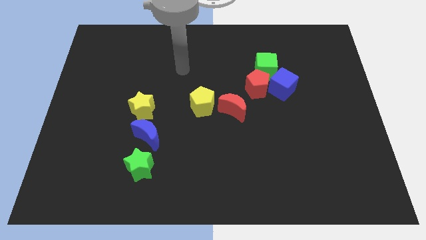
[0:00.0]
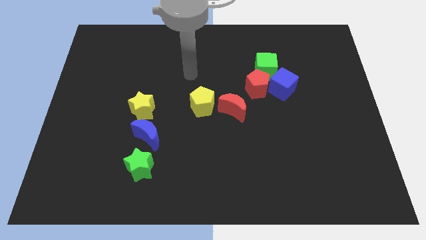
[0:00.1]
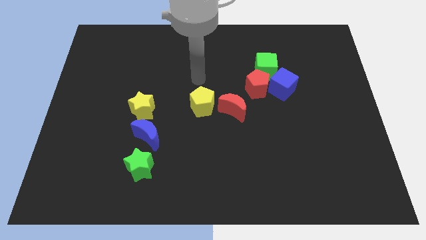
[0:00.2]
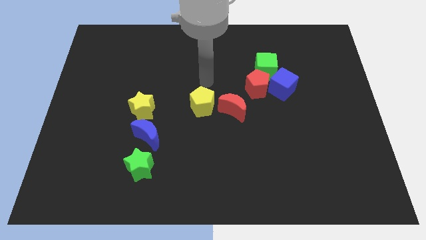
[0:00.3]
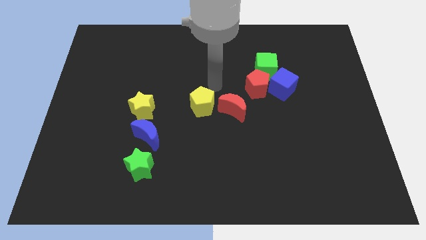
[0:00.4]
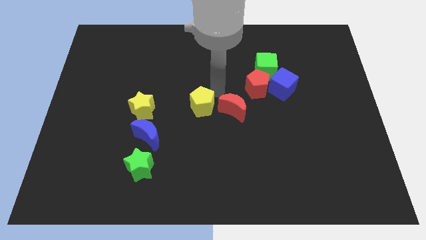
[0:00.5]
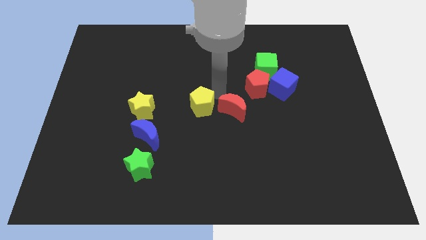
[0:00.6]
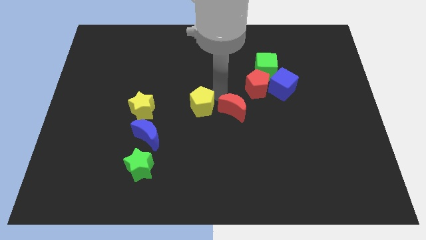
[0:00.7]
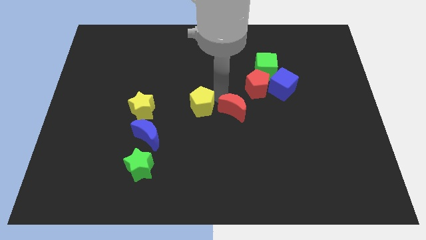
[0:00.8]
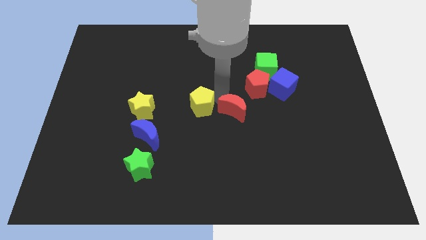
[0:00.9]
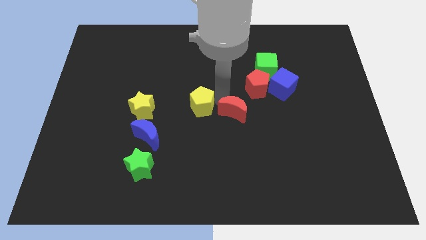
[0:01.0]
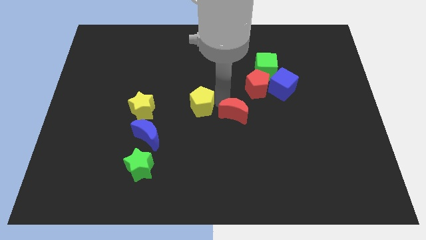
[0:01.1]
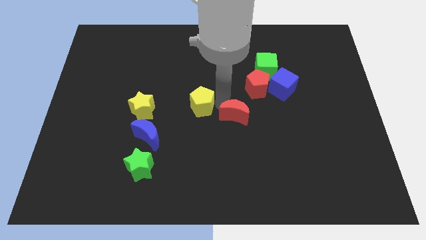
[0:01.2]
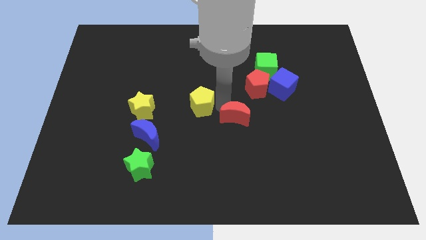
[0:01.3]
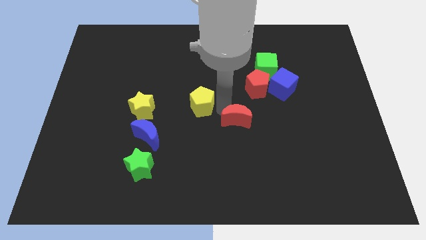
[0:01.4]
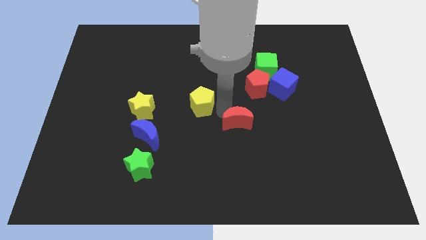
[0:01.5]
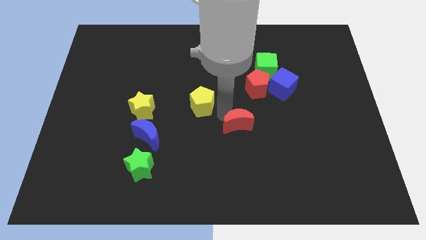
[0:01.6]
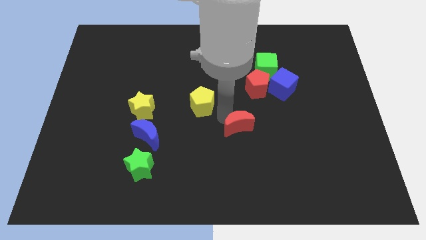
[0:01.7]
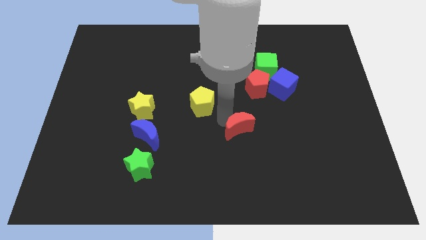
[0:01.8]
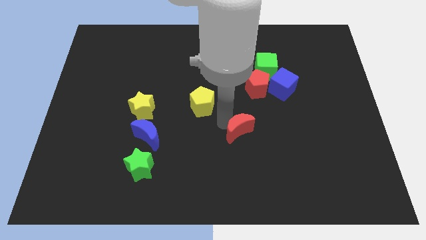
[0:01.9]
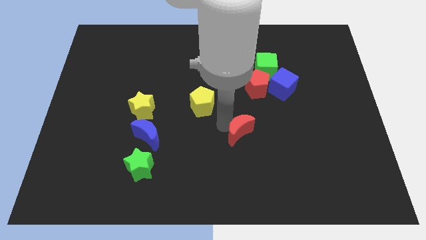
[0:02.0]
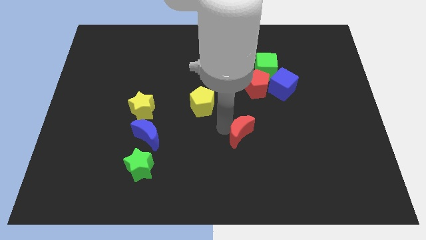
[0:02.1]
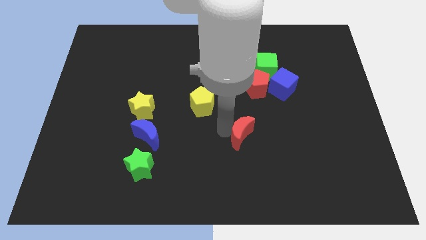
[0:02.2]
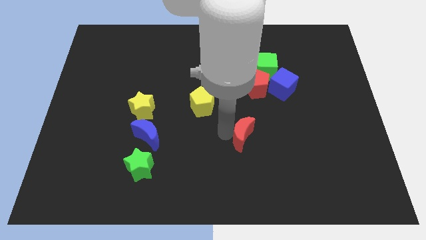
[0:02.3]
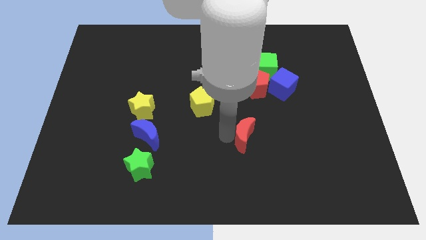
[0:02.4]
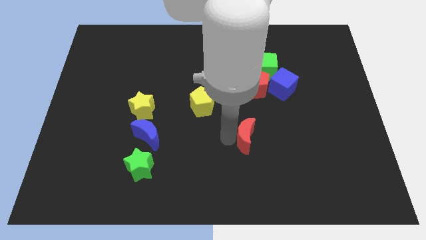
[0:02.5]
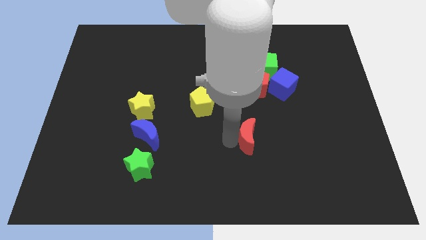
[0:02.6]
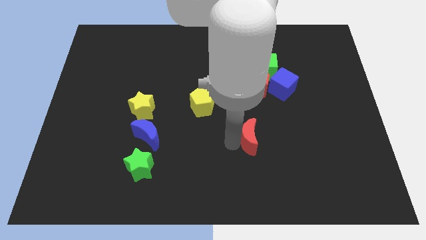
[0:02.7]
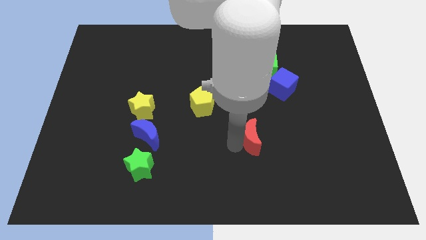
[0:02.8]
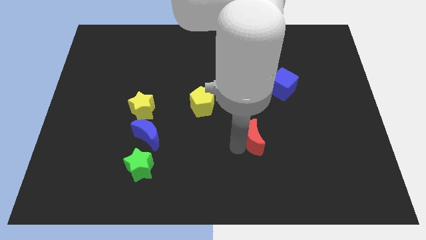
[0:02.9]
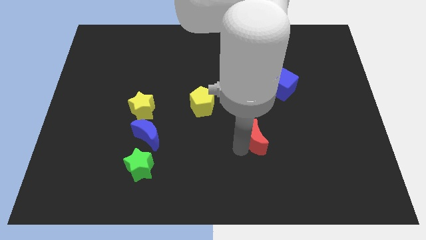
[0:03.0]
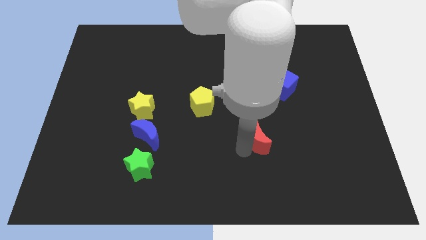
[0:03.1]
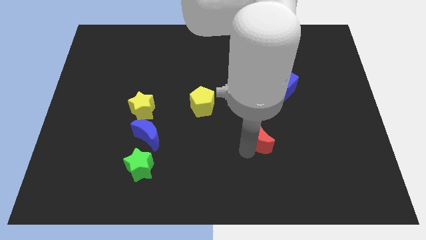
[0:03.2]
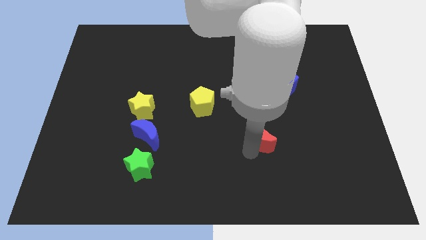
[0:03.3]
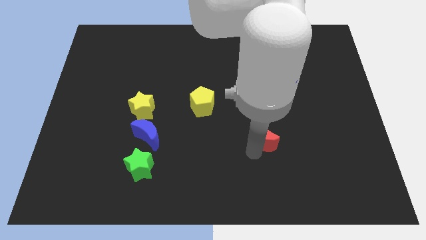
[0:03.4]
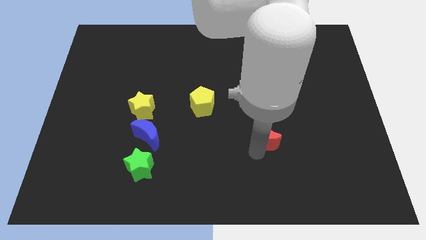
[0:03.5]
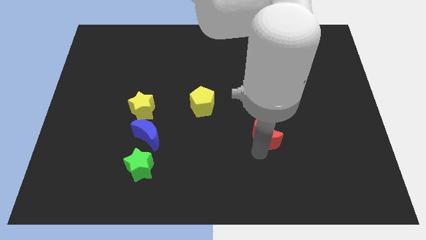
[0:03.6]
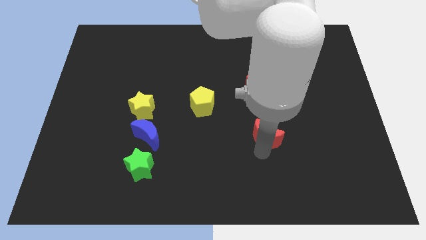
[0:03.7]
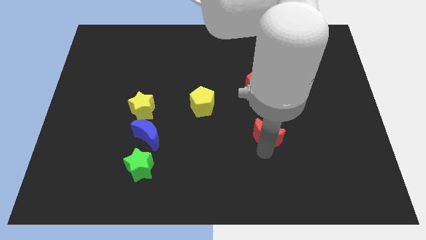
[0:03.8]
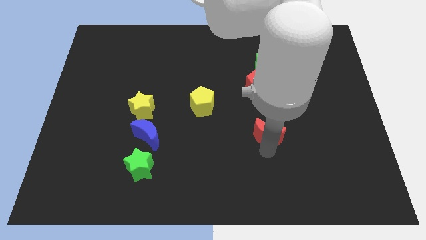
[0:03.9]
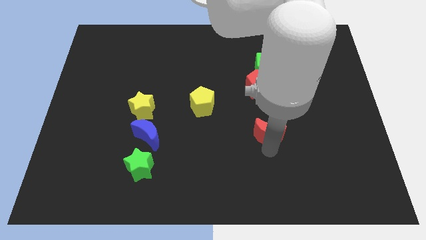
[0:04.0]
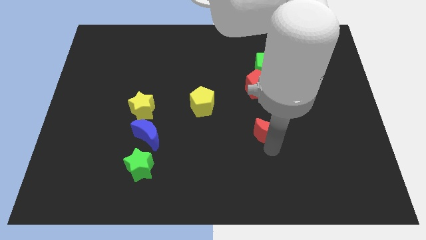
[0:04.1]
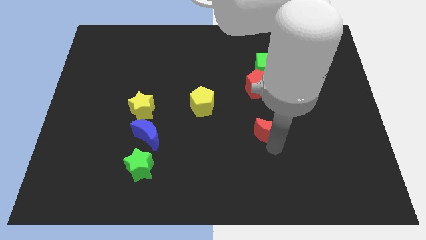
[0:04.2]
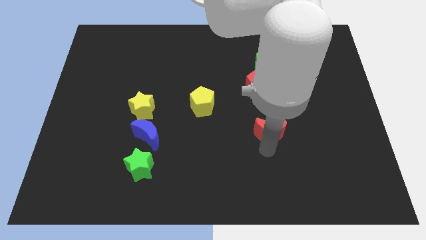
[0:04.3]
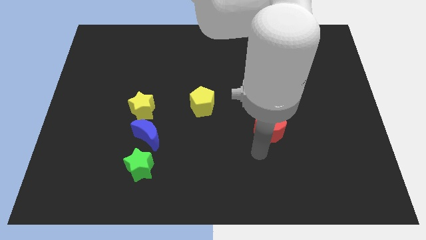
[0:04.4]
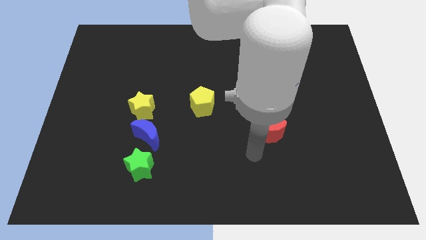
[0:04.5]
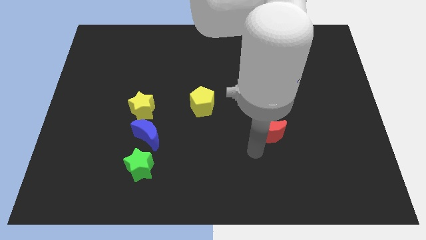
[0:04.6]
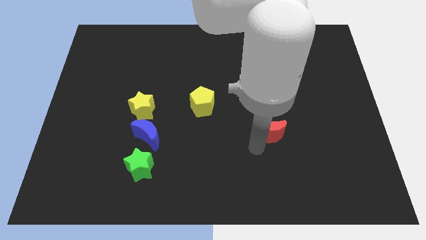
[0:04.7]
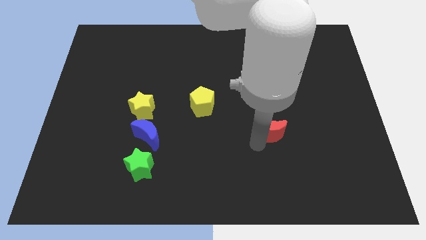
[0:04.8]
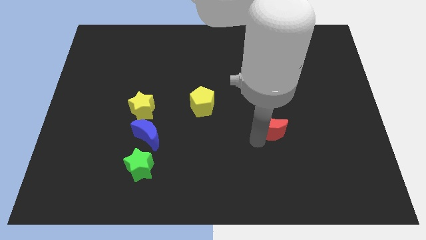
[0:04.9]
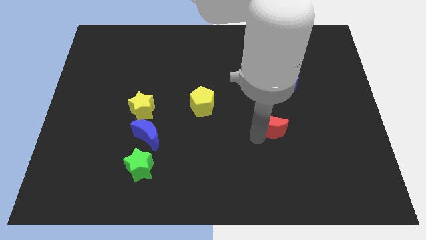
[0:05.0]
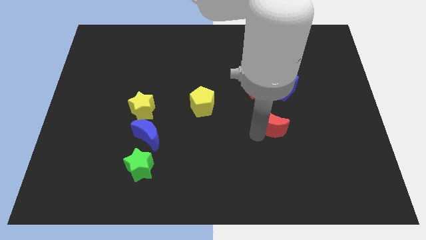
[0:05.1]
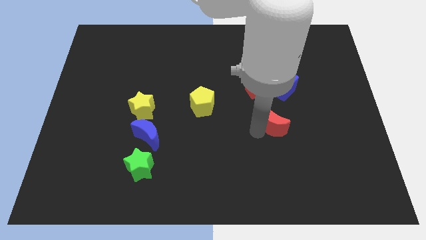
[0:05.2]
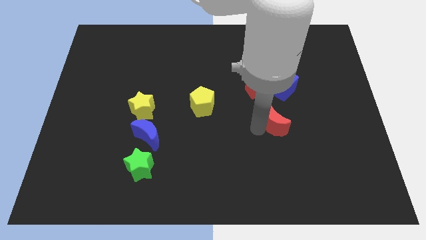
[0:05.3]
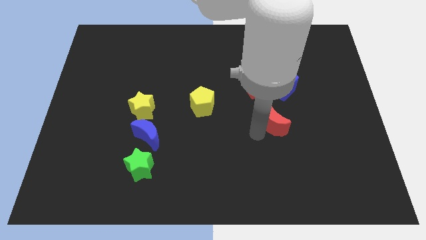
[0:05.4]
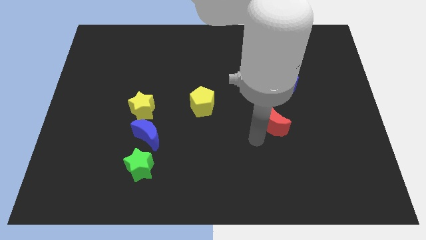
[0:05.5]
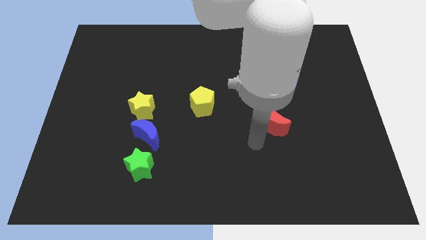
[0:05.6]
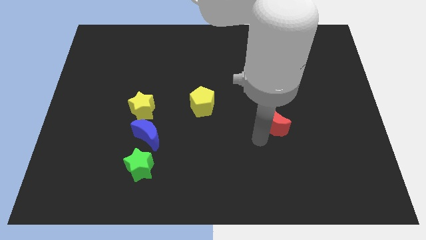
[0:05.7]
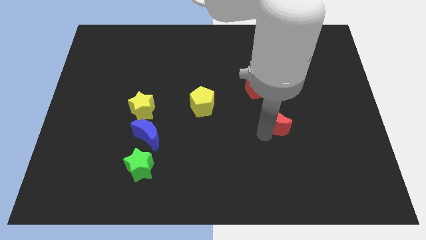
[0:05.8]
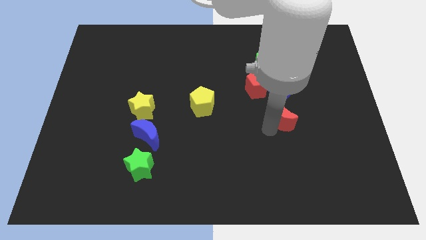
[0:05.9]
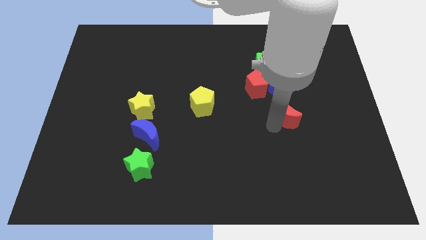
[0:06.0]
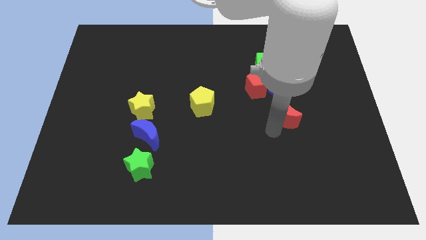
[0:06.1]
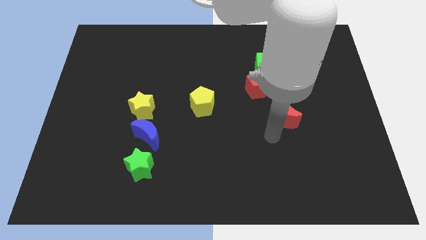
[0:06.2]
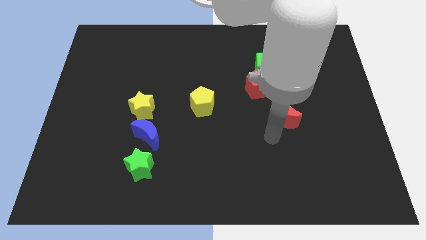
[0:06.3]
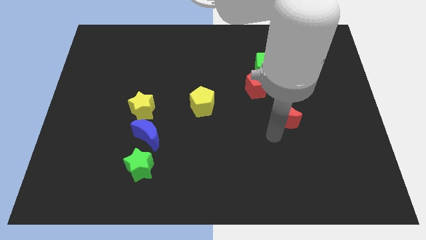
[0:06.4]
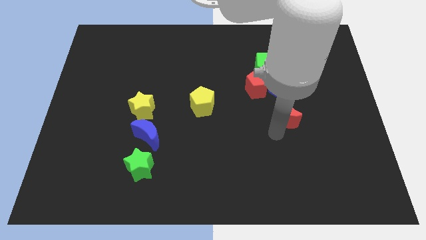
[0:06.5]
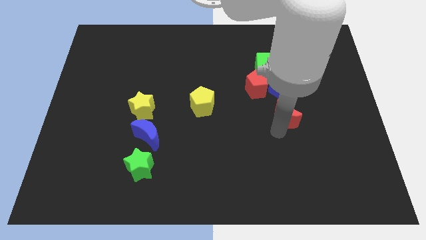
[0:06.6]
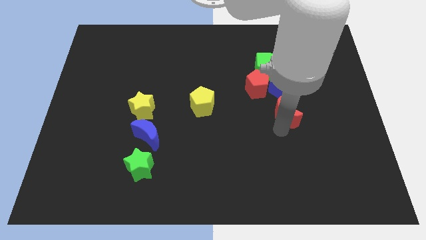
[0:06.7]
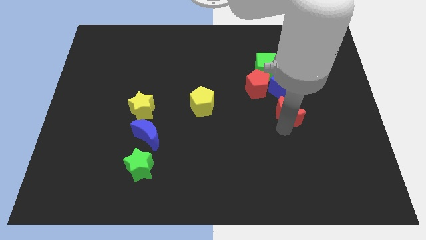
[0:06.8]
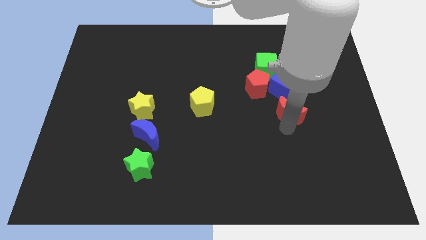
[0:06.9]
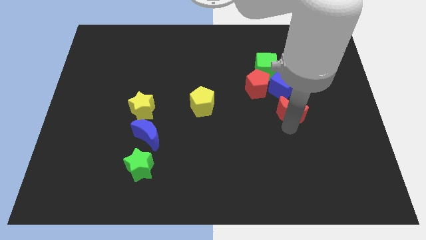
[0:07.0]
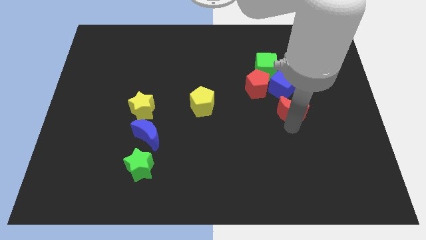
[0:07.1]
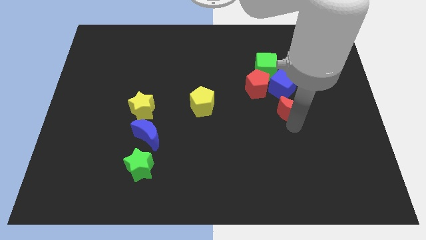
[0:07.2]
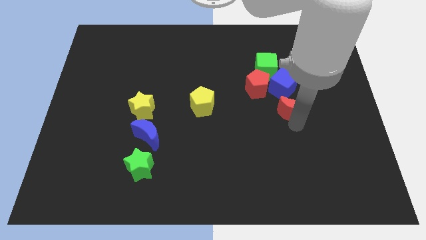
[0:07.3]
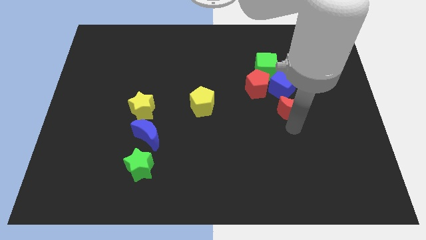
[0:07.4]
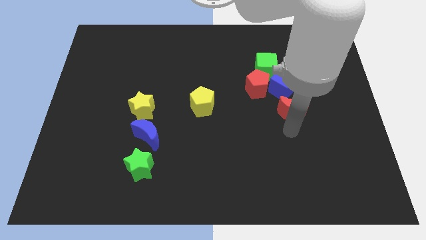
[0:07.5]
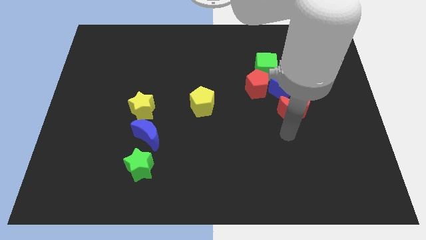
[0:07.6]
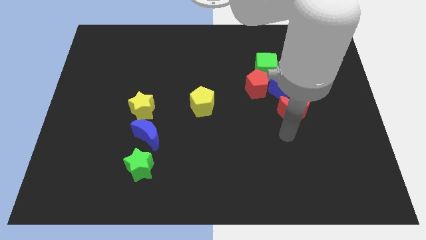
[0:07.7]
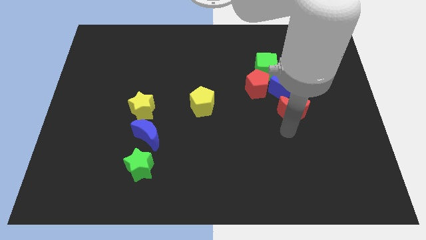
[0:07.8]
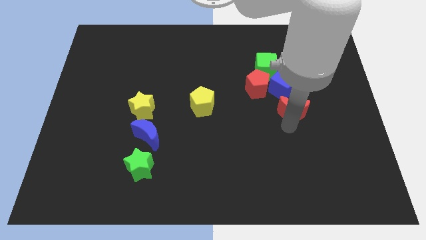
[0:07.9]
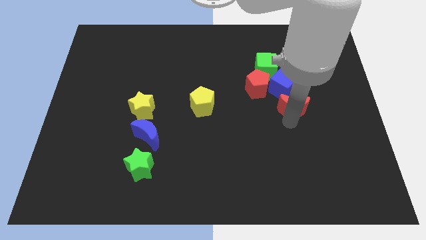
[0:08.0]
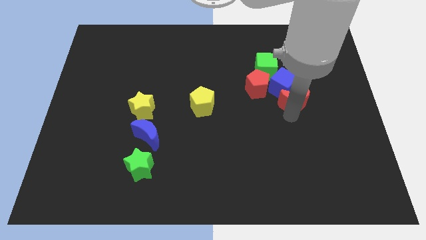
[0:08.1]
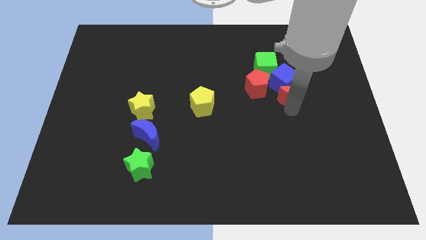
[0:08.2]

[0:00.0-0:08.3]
push the red moon just right of the red pentagon

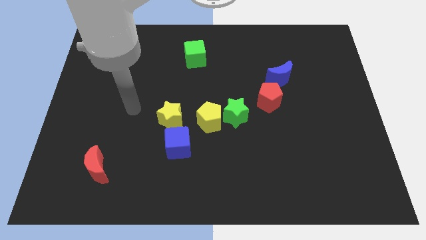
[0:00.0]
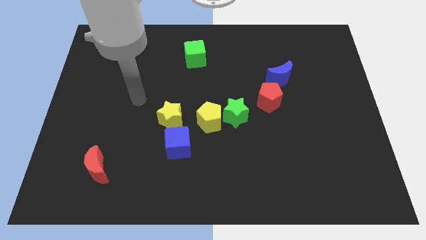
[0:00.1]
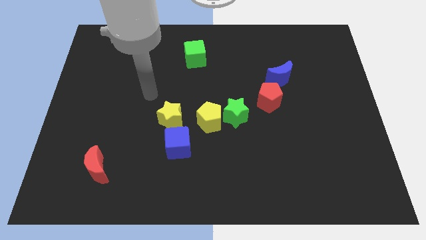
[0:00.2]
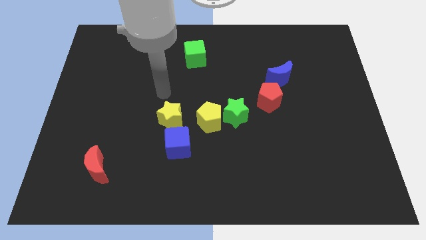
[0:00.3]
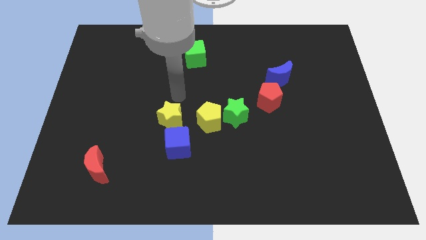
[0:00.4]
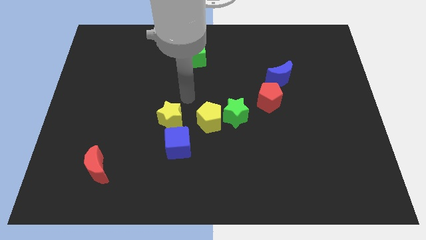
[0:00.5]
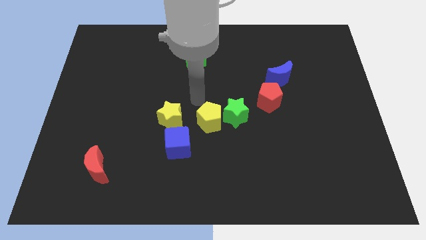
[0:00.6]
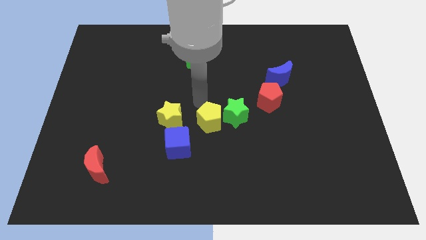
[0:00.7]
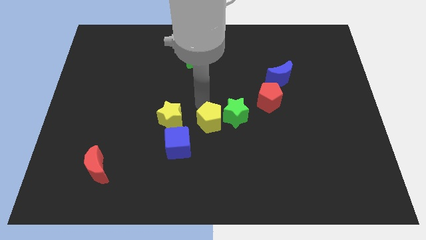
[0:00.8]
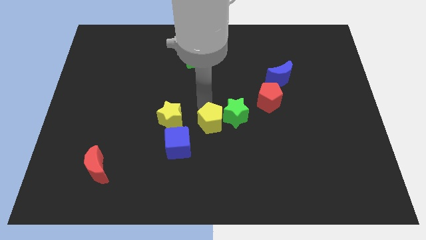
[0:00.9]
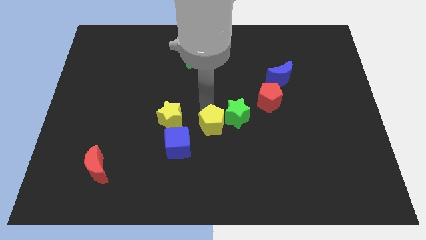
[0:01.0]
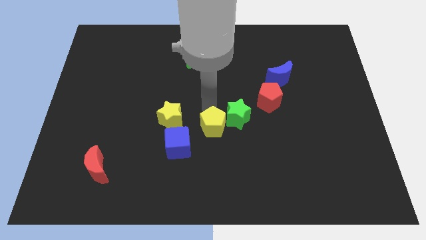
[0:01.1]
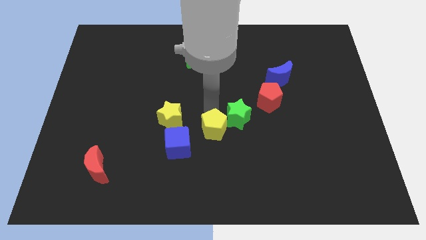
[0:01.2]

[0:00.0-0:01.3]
move the yellow pentagon to the right of the blue cube
